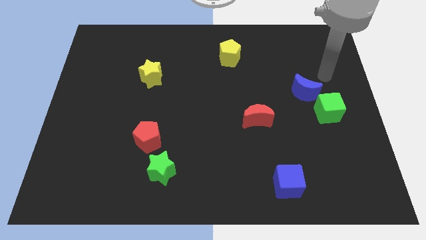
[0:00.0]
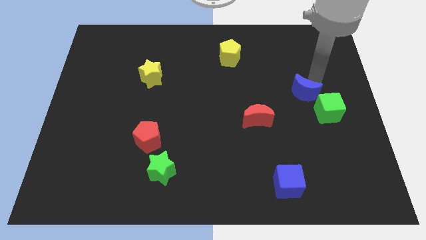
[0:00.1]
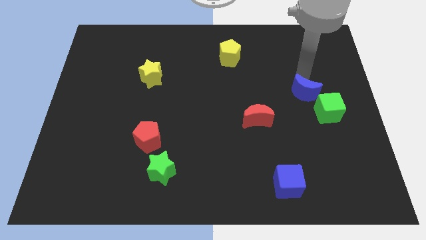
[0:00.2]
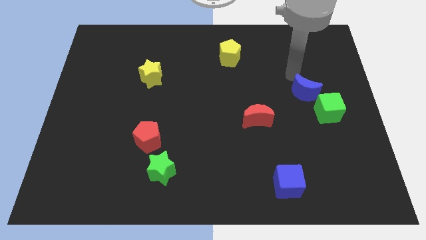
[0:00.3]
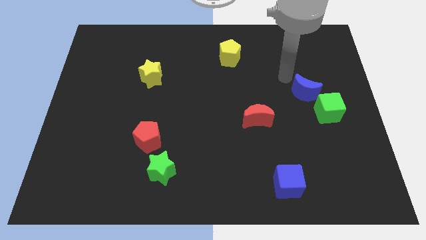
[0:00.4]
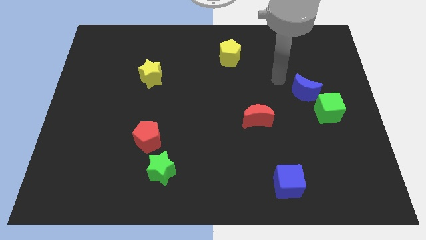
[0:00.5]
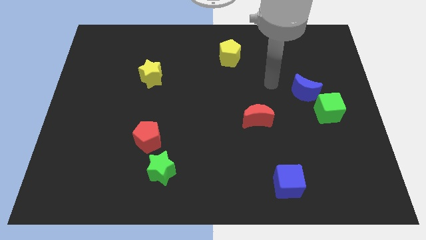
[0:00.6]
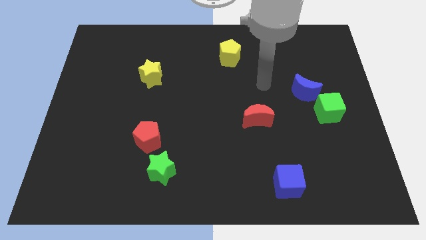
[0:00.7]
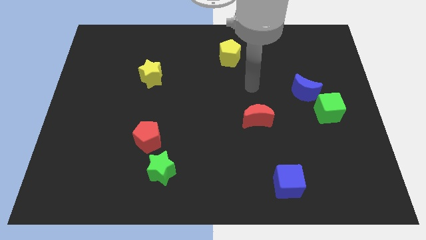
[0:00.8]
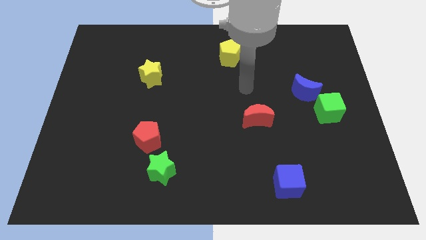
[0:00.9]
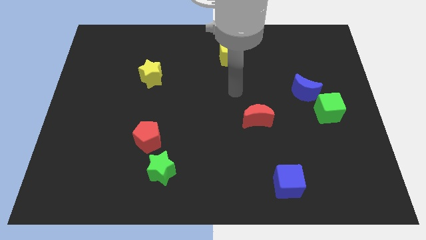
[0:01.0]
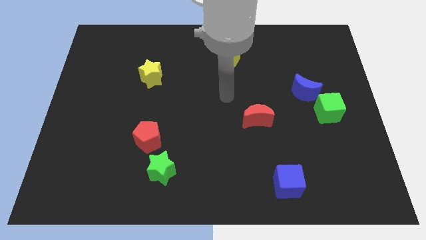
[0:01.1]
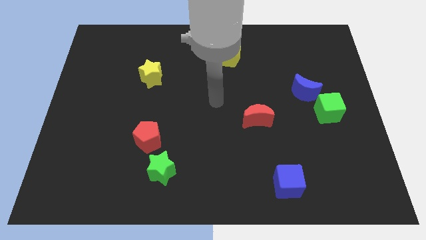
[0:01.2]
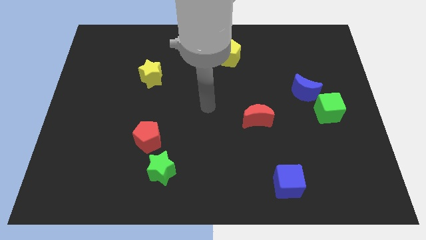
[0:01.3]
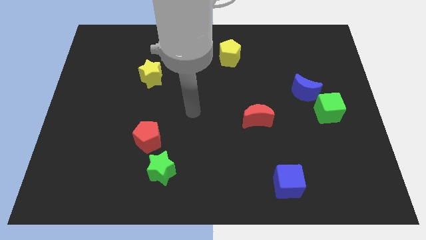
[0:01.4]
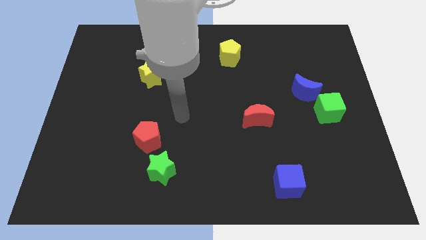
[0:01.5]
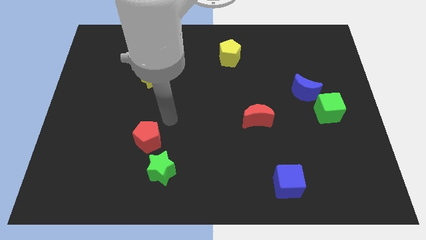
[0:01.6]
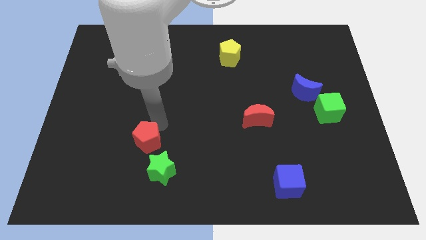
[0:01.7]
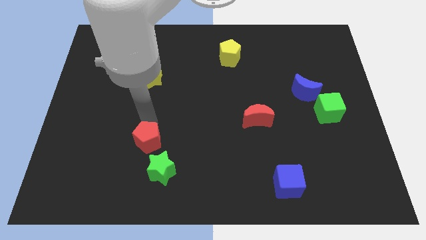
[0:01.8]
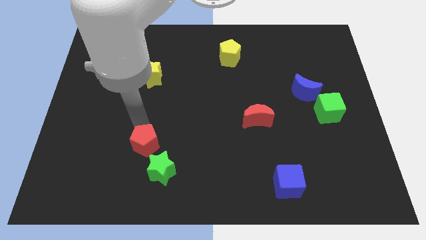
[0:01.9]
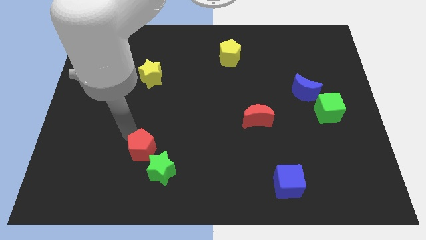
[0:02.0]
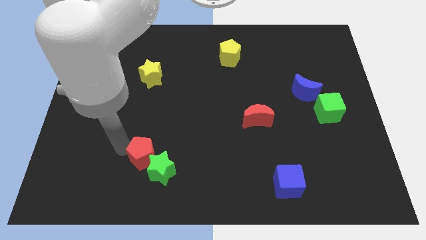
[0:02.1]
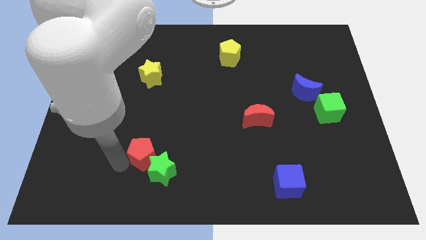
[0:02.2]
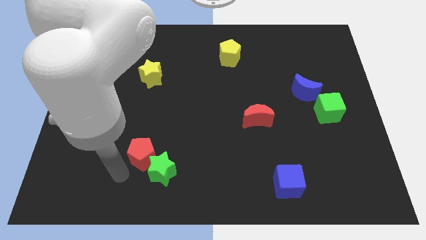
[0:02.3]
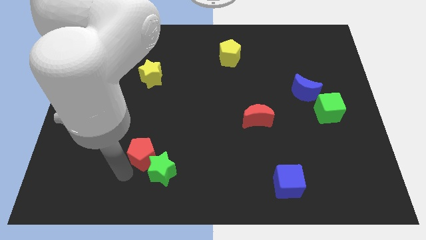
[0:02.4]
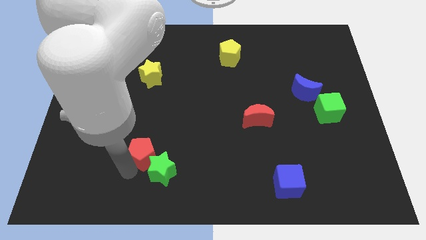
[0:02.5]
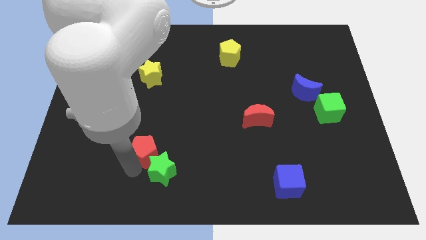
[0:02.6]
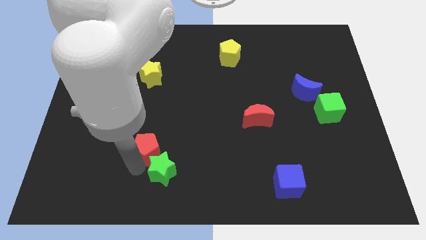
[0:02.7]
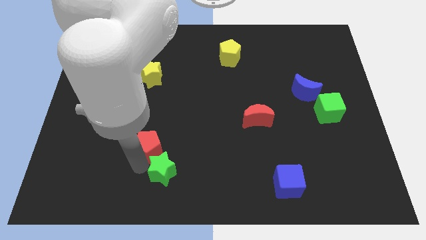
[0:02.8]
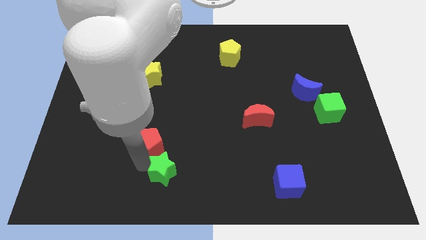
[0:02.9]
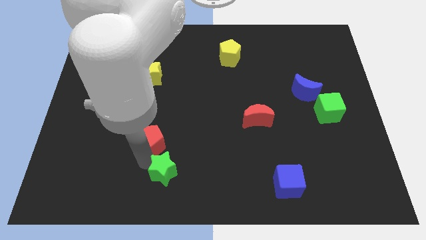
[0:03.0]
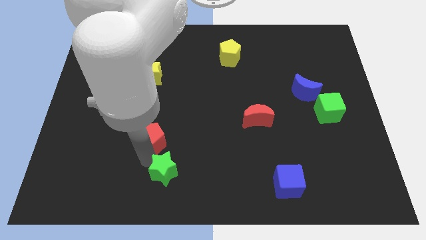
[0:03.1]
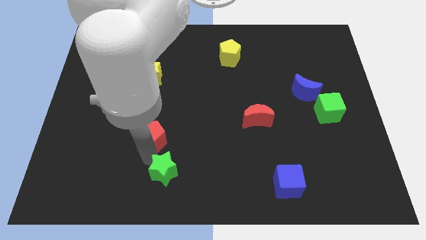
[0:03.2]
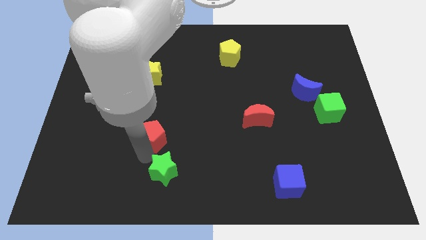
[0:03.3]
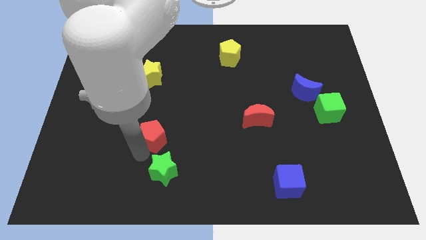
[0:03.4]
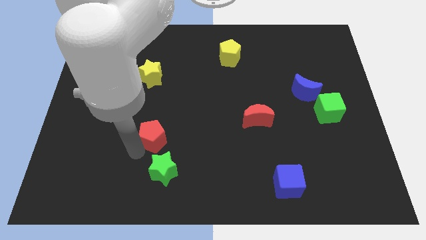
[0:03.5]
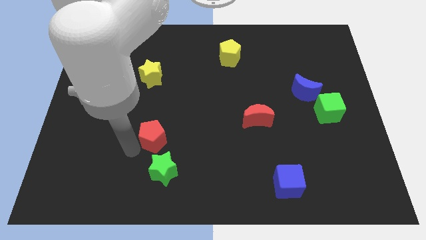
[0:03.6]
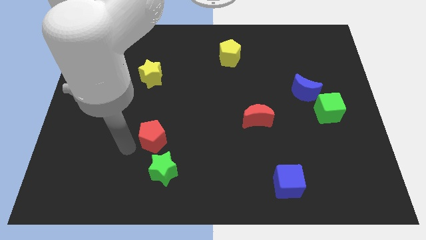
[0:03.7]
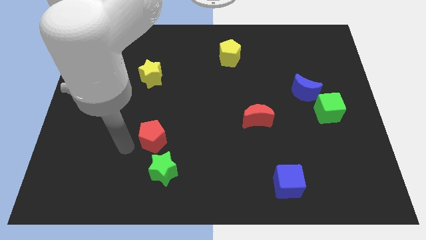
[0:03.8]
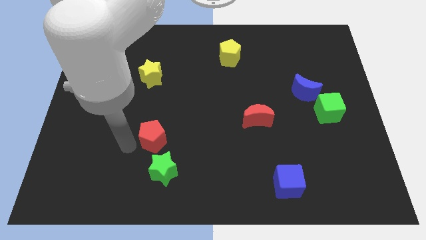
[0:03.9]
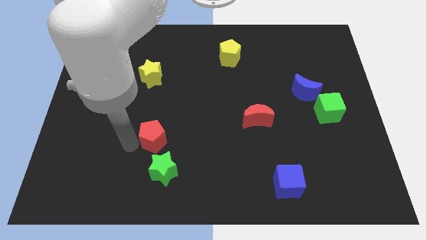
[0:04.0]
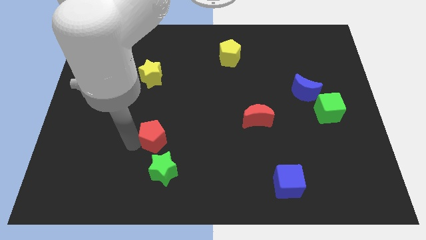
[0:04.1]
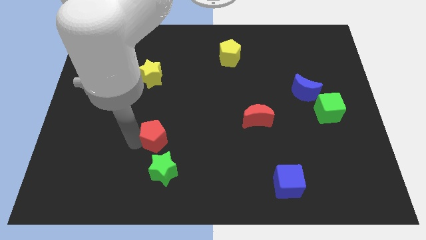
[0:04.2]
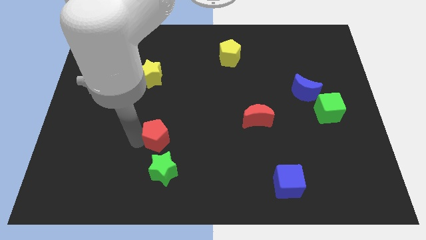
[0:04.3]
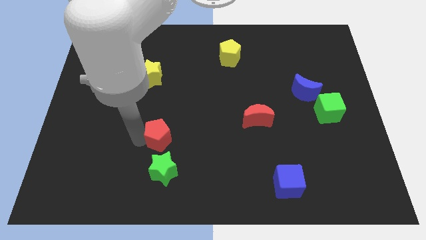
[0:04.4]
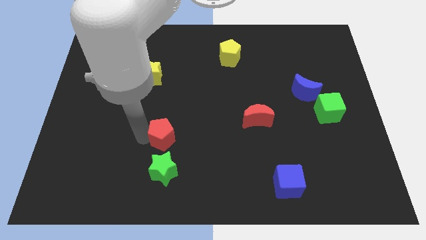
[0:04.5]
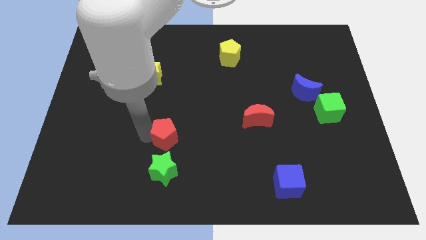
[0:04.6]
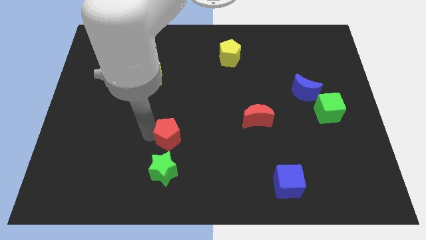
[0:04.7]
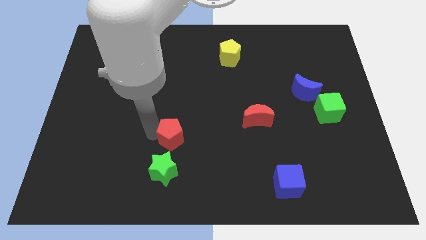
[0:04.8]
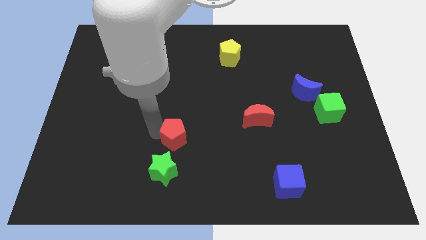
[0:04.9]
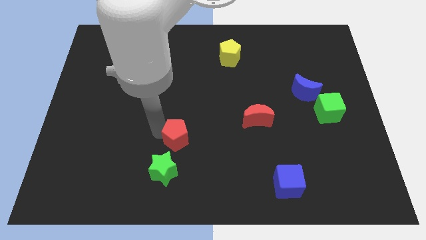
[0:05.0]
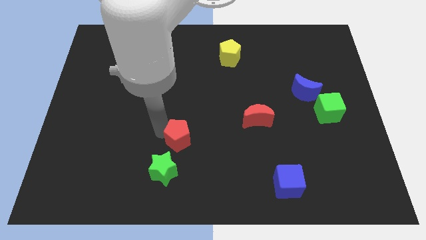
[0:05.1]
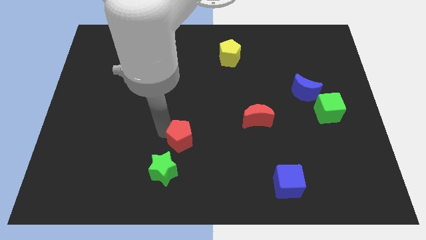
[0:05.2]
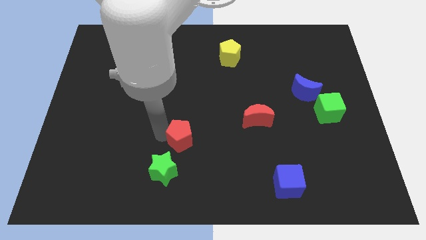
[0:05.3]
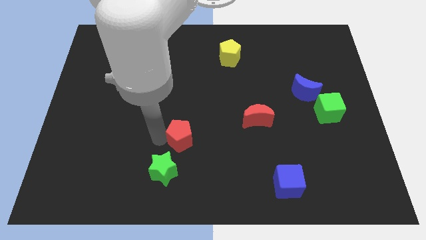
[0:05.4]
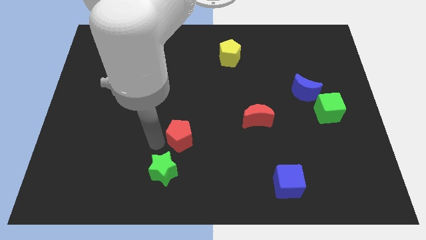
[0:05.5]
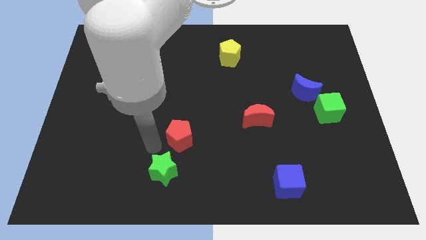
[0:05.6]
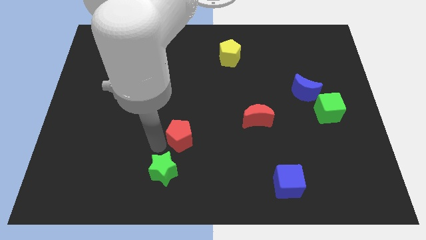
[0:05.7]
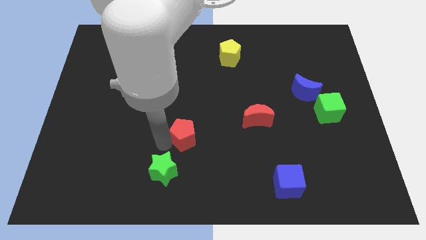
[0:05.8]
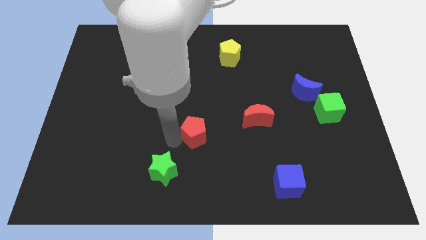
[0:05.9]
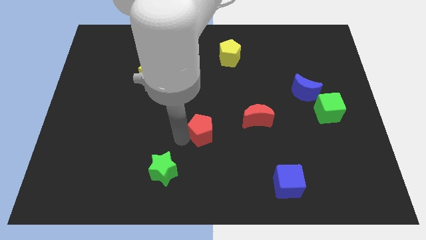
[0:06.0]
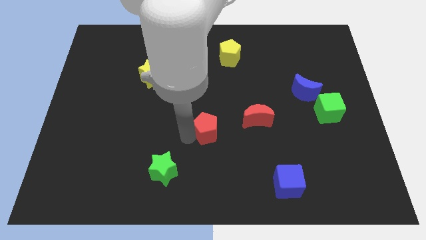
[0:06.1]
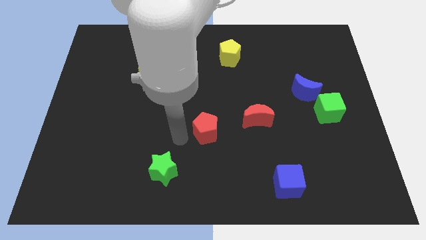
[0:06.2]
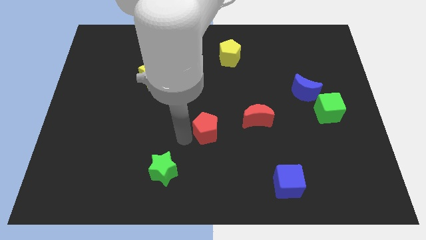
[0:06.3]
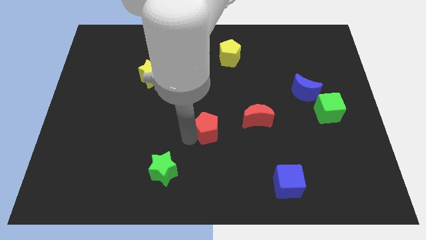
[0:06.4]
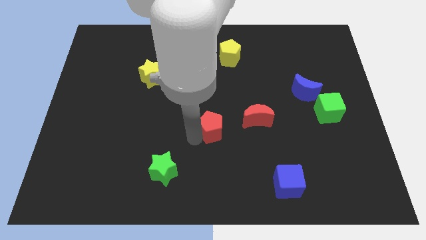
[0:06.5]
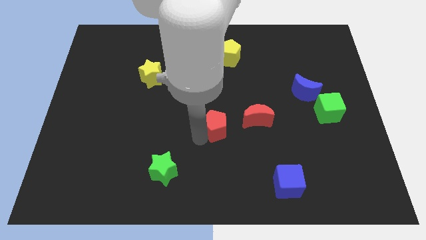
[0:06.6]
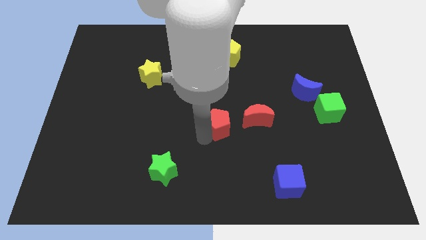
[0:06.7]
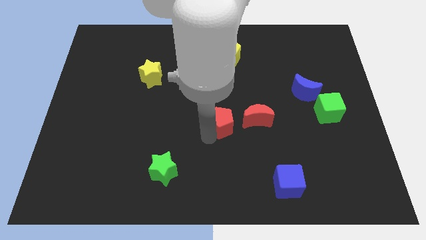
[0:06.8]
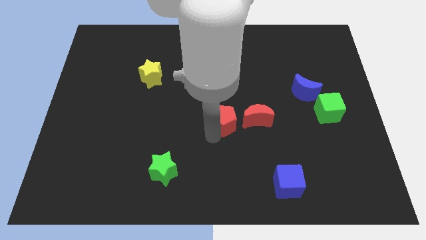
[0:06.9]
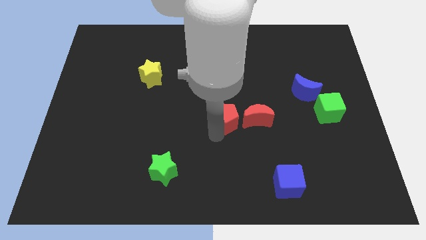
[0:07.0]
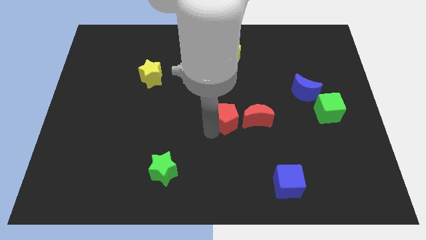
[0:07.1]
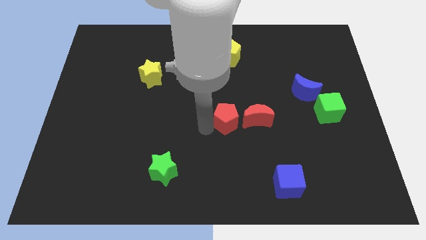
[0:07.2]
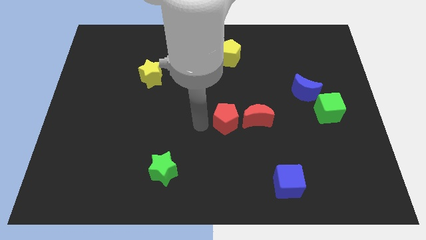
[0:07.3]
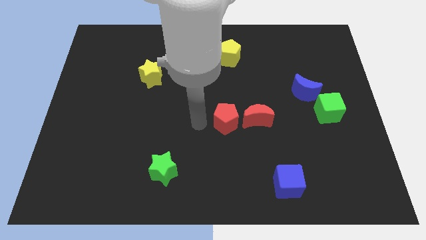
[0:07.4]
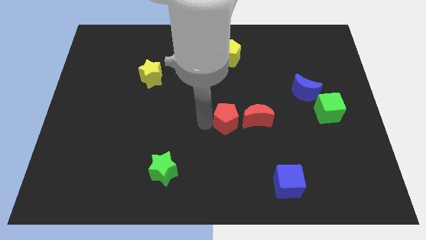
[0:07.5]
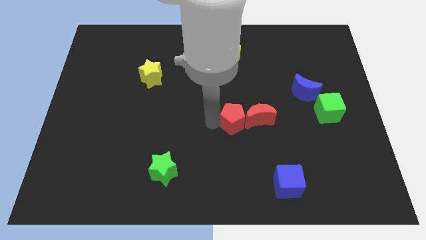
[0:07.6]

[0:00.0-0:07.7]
put the red pentagon to the red moon

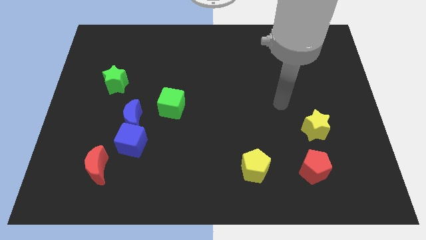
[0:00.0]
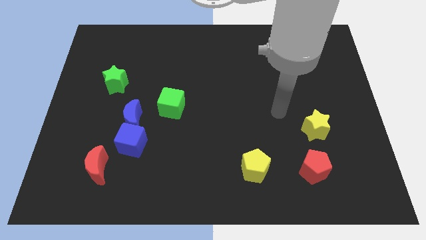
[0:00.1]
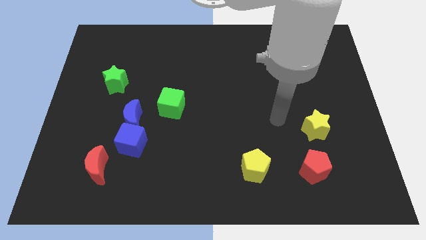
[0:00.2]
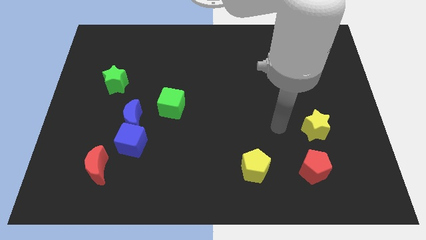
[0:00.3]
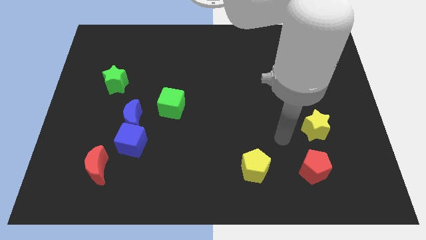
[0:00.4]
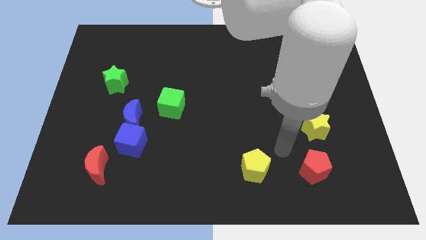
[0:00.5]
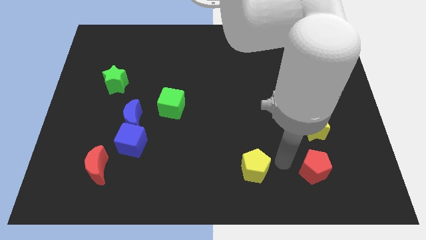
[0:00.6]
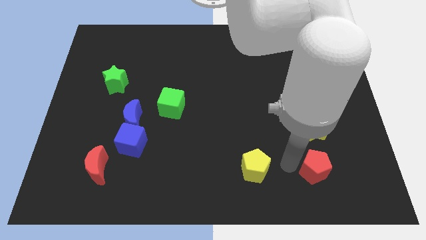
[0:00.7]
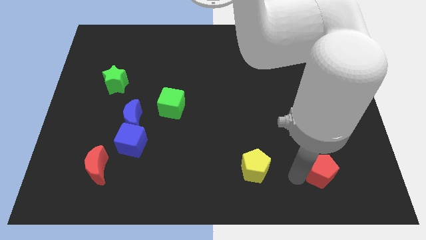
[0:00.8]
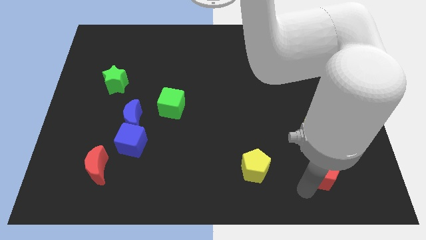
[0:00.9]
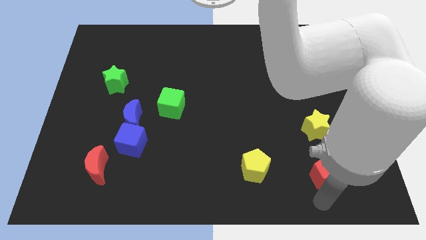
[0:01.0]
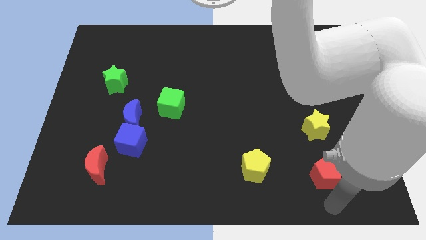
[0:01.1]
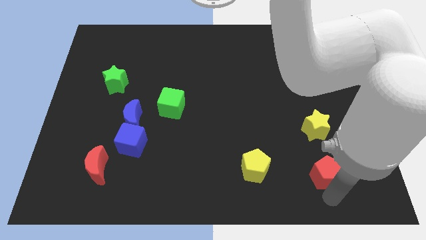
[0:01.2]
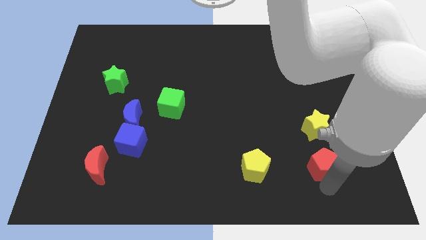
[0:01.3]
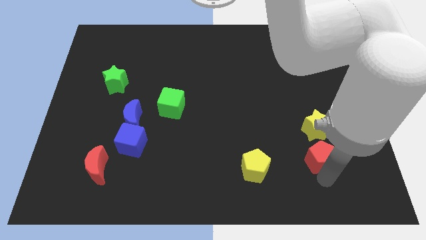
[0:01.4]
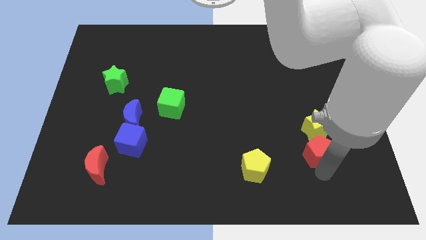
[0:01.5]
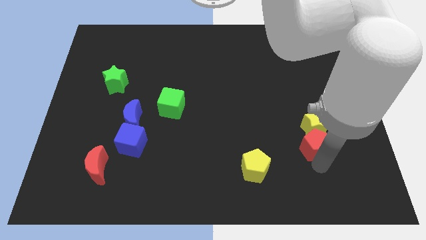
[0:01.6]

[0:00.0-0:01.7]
slide the red pentagon close to the yellow star
